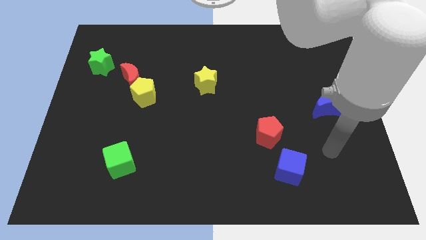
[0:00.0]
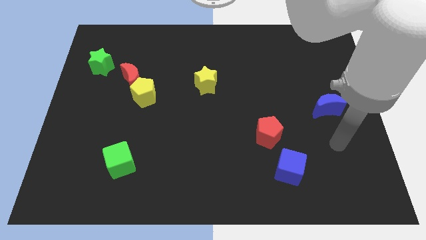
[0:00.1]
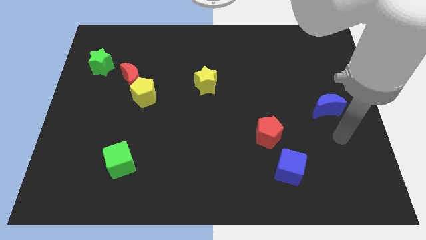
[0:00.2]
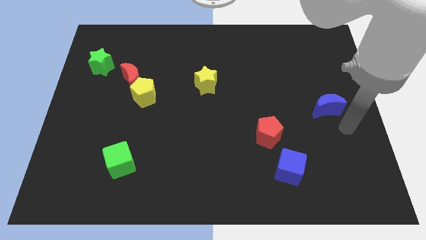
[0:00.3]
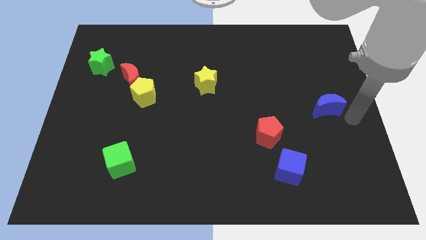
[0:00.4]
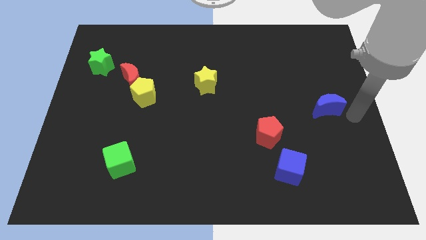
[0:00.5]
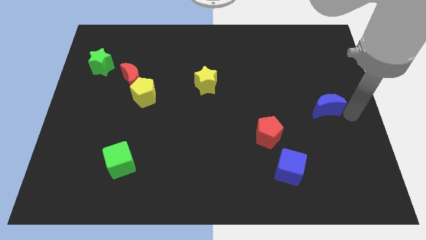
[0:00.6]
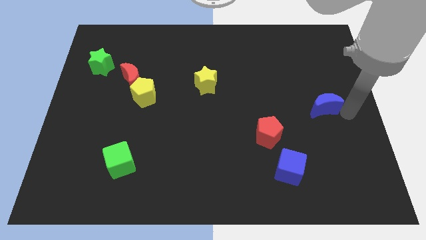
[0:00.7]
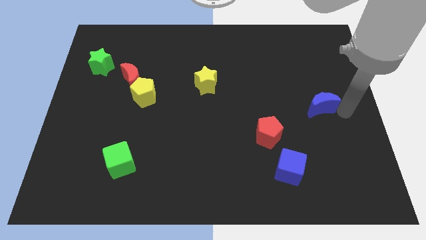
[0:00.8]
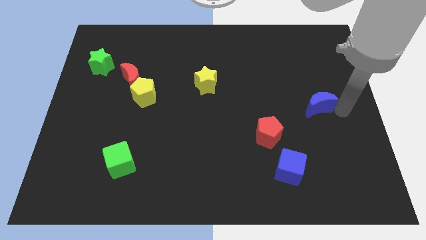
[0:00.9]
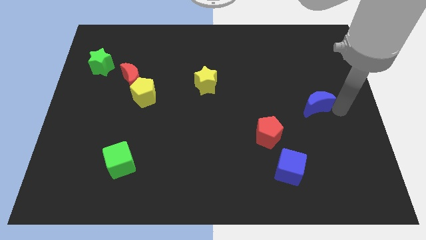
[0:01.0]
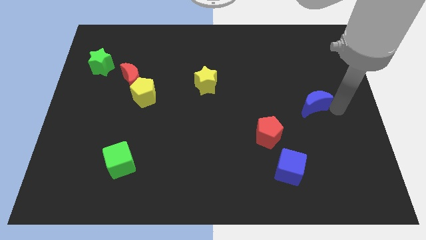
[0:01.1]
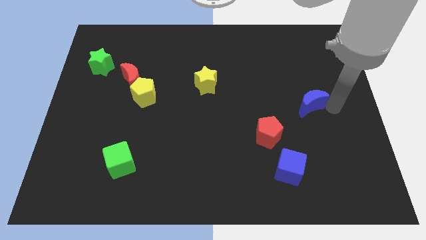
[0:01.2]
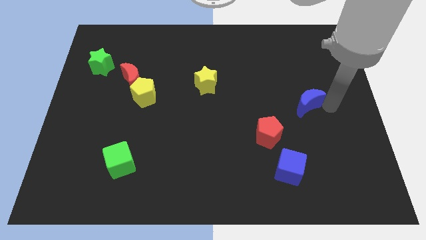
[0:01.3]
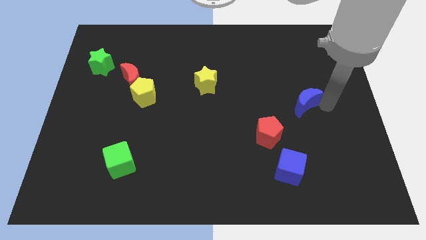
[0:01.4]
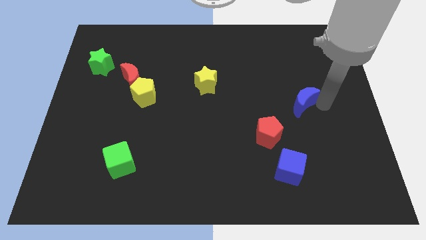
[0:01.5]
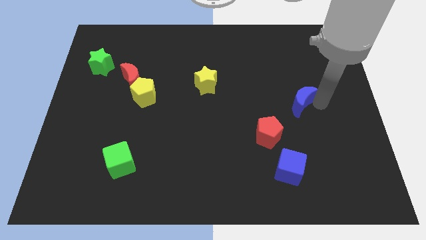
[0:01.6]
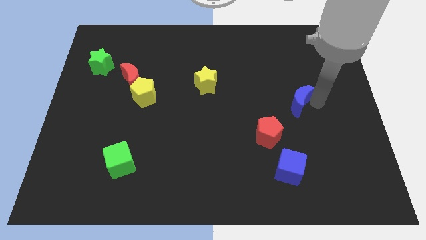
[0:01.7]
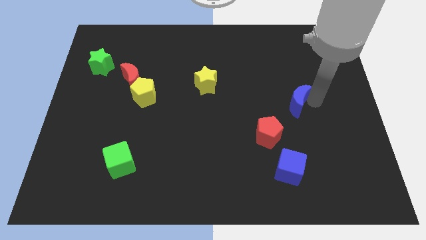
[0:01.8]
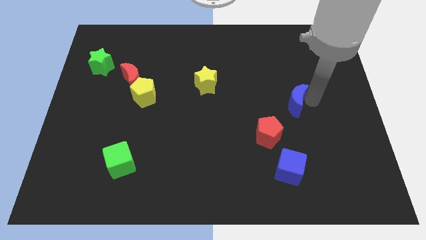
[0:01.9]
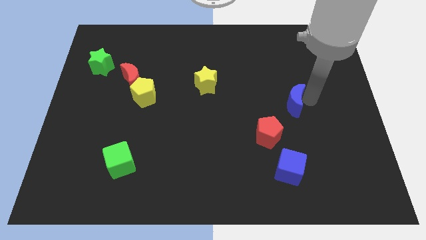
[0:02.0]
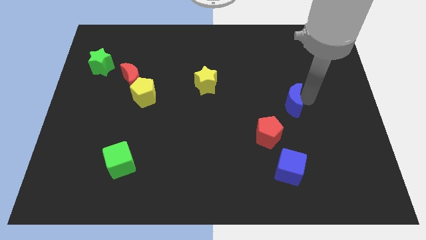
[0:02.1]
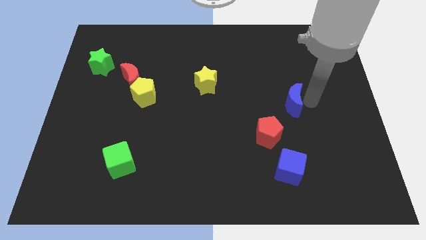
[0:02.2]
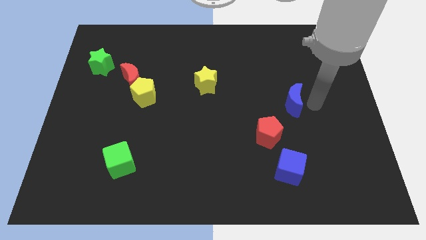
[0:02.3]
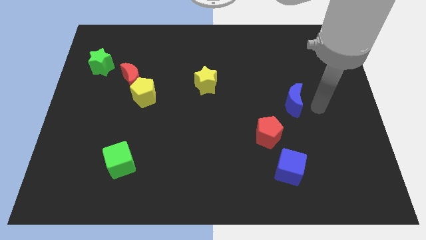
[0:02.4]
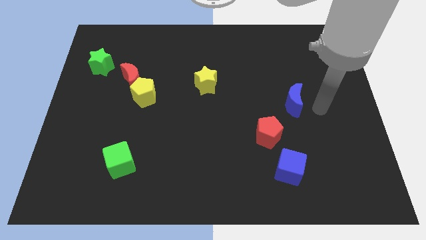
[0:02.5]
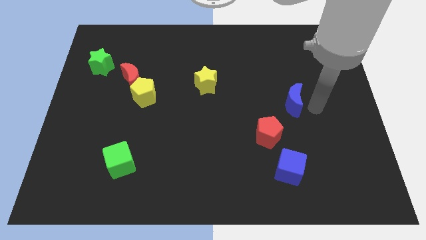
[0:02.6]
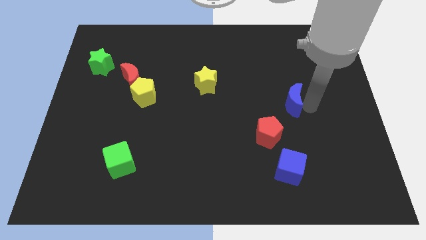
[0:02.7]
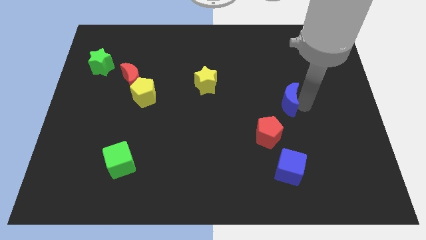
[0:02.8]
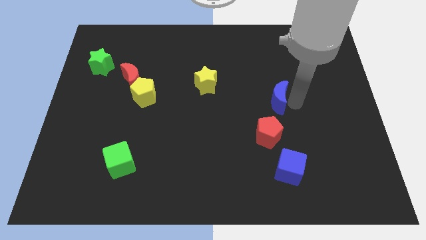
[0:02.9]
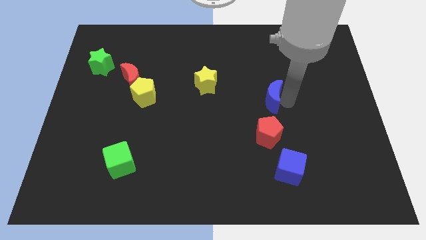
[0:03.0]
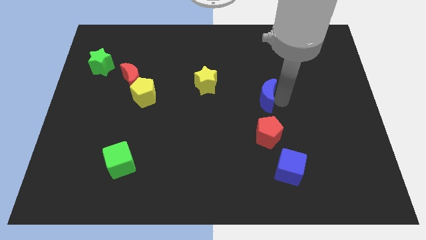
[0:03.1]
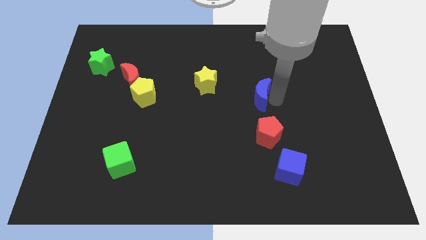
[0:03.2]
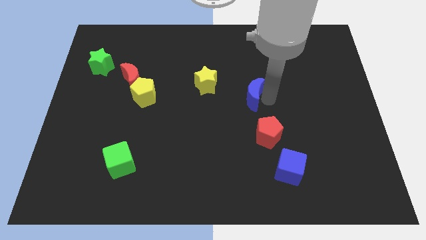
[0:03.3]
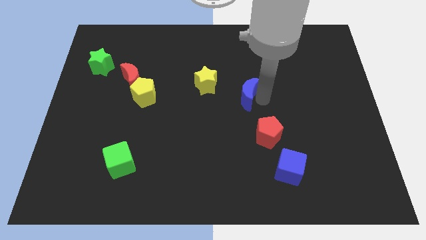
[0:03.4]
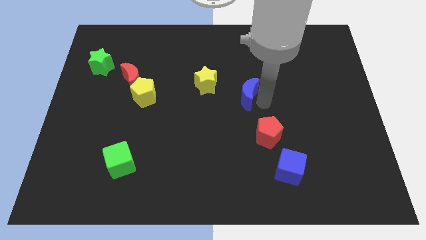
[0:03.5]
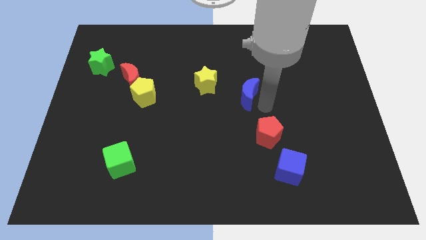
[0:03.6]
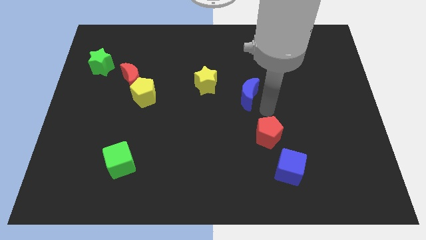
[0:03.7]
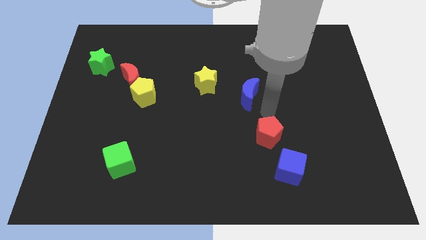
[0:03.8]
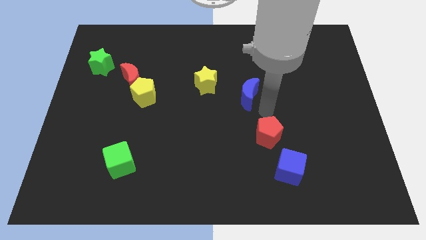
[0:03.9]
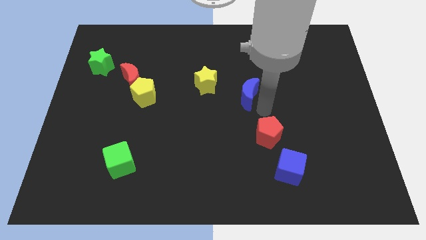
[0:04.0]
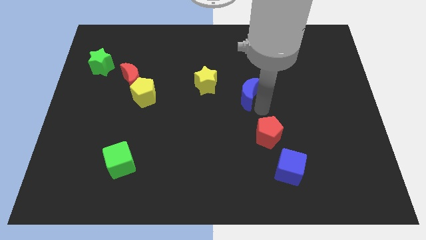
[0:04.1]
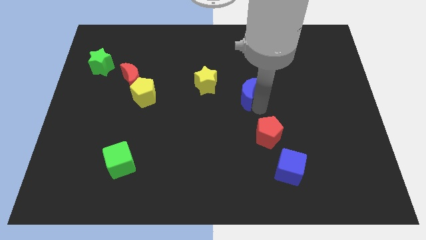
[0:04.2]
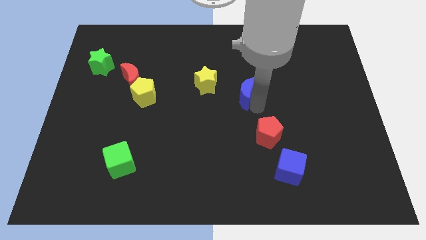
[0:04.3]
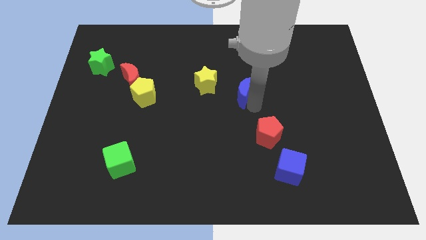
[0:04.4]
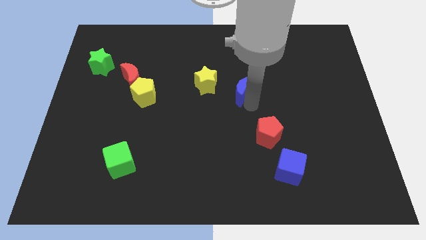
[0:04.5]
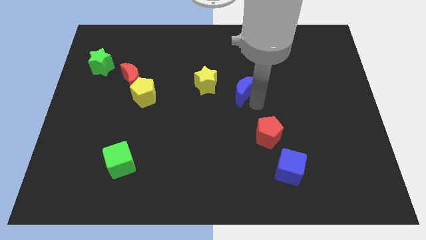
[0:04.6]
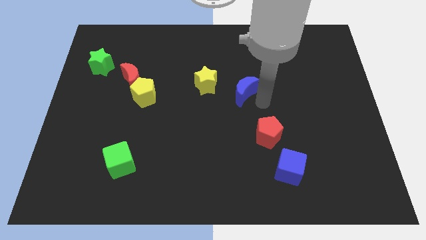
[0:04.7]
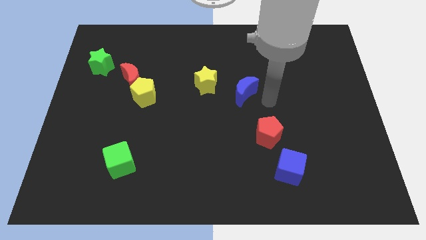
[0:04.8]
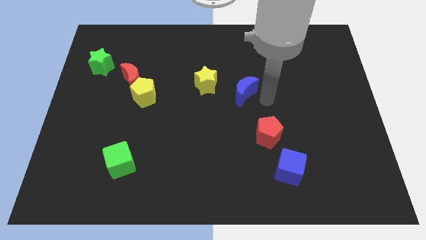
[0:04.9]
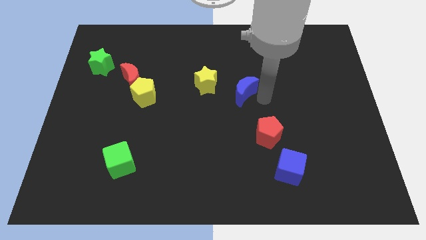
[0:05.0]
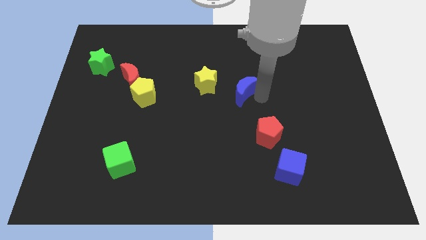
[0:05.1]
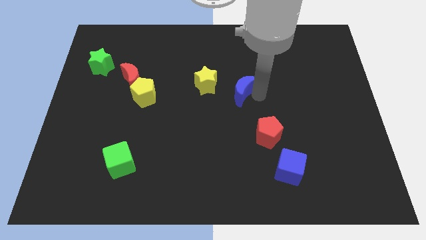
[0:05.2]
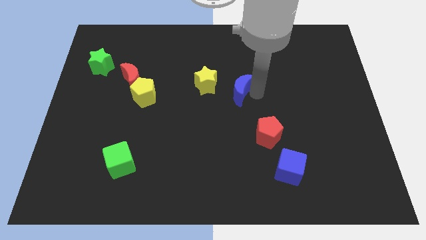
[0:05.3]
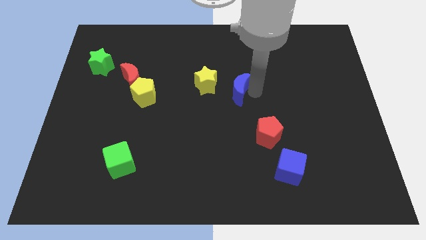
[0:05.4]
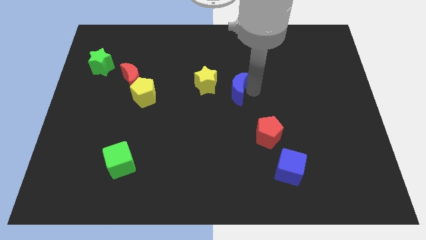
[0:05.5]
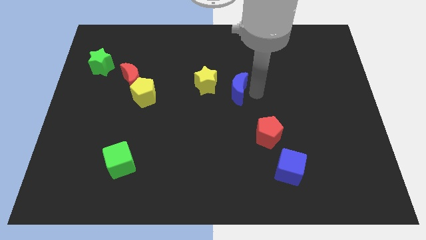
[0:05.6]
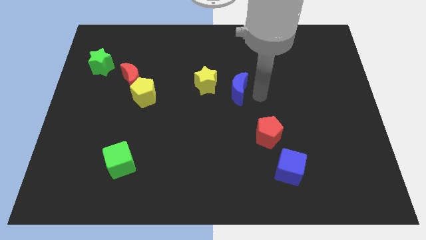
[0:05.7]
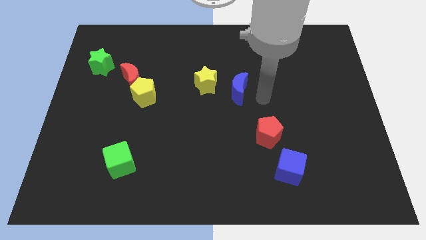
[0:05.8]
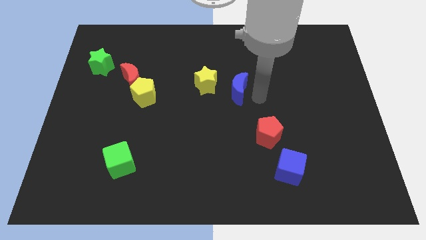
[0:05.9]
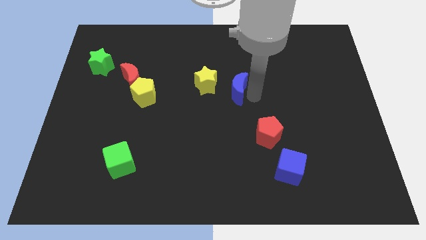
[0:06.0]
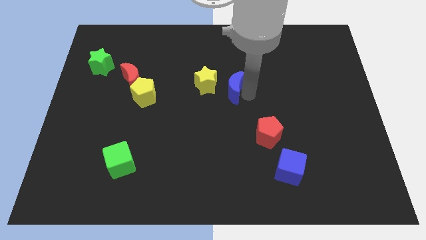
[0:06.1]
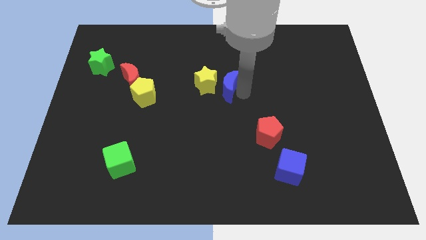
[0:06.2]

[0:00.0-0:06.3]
move the blue moon close to the yellow star

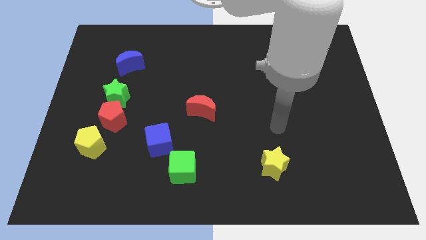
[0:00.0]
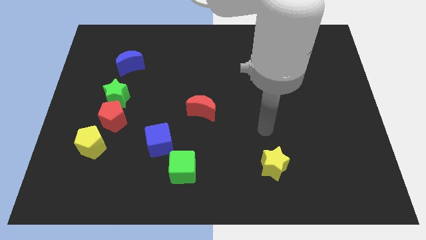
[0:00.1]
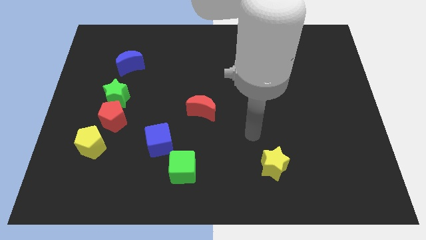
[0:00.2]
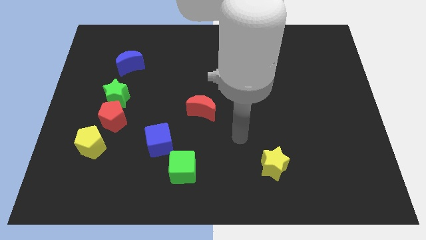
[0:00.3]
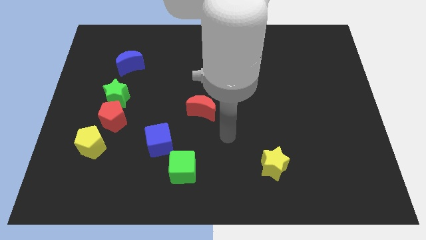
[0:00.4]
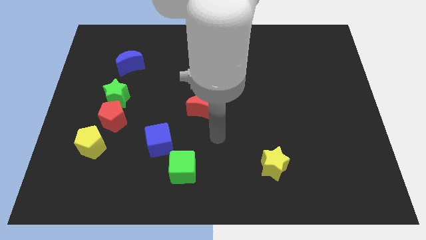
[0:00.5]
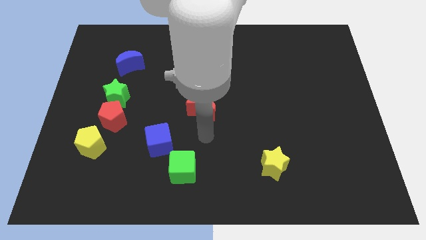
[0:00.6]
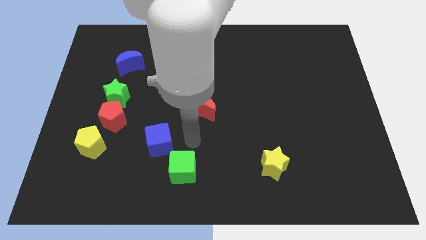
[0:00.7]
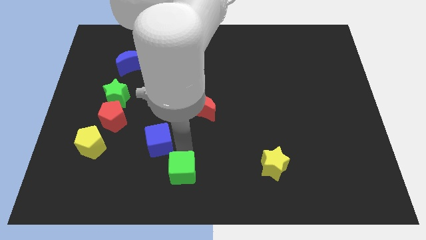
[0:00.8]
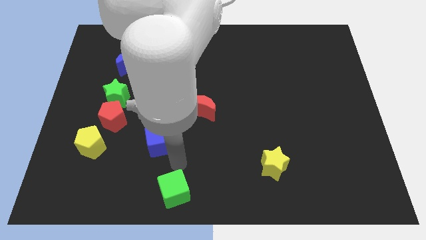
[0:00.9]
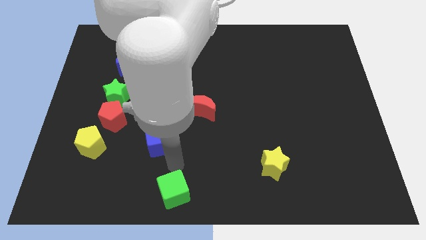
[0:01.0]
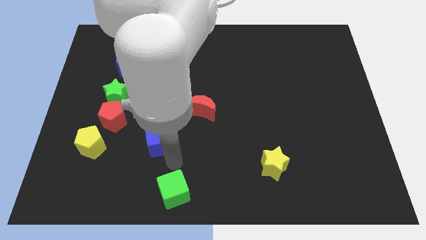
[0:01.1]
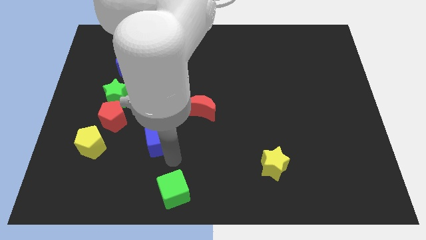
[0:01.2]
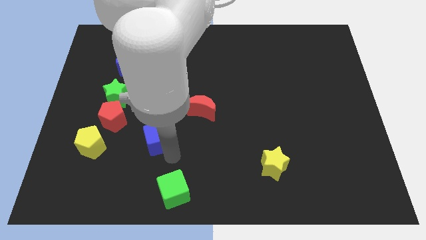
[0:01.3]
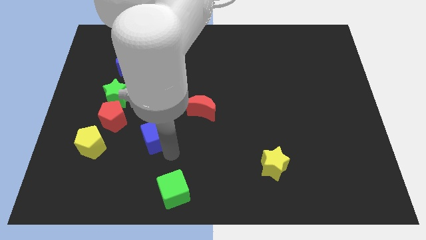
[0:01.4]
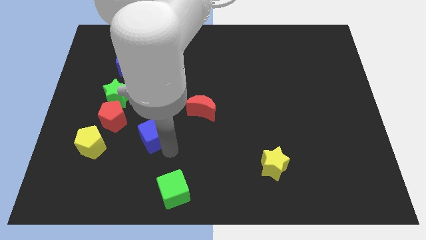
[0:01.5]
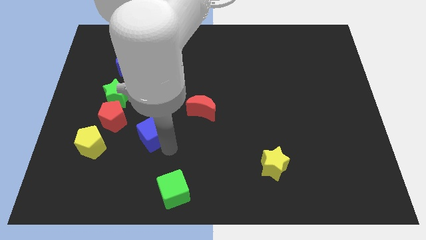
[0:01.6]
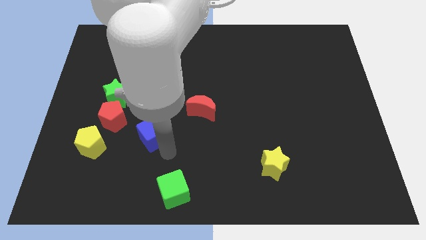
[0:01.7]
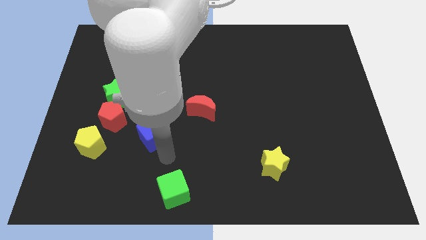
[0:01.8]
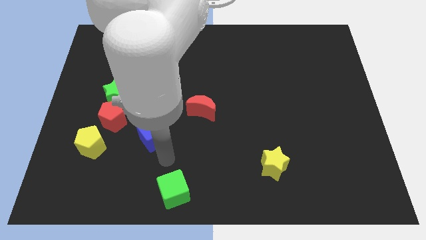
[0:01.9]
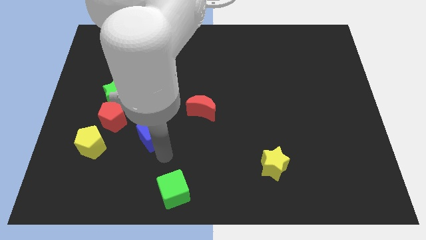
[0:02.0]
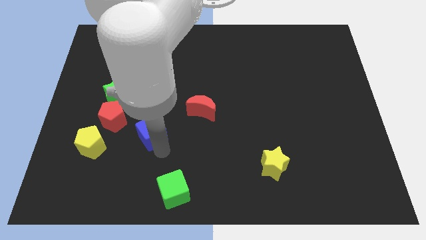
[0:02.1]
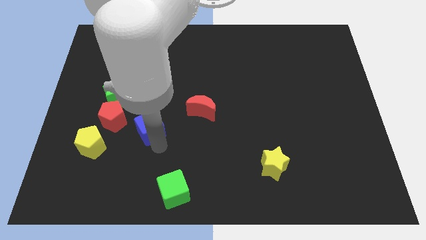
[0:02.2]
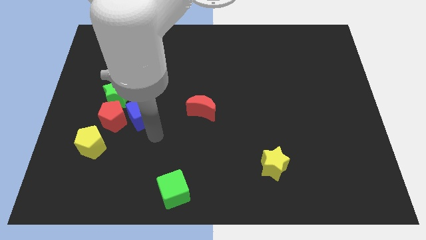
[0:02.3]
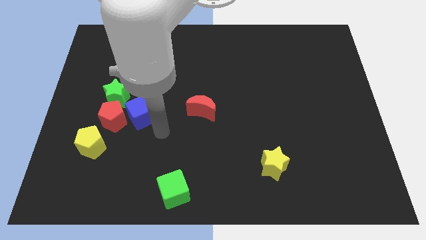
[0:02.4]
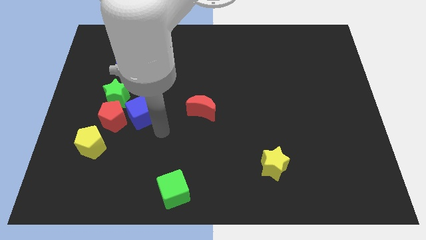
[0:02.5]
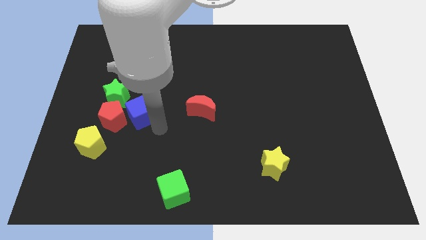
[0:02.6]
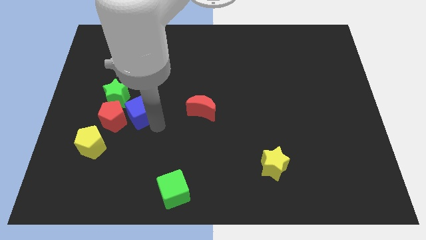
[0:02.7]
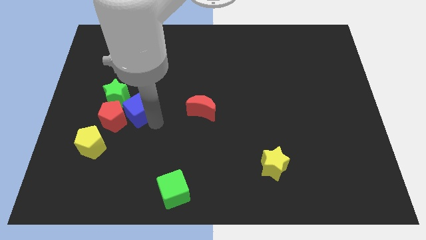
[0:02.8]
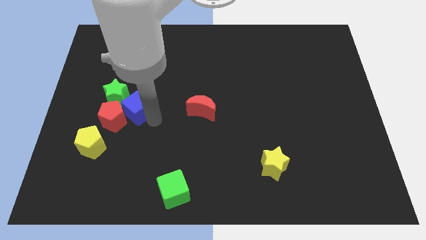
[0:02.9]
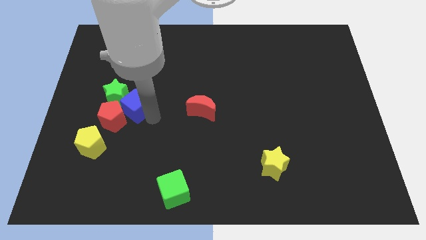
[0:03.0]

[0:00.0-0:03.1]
put the blue cube towards the green star
